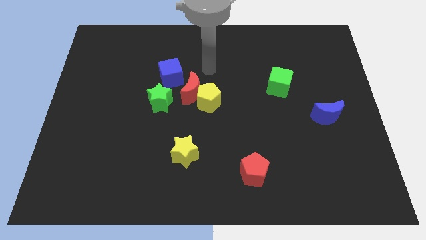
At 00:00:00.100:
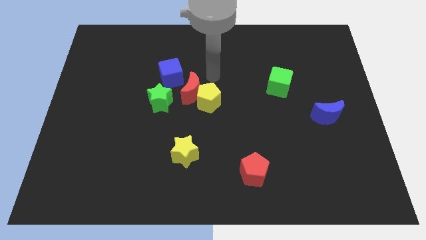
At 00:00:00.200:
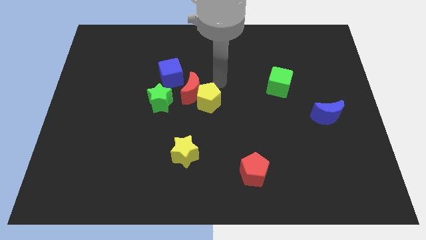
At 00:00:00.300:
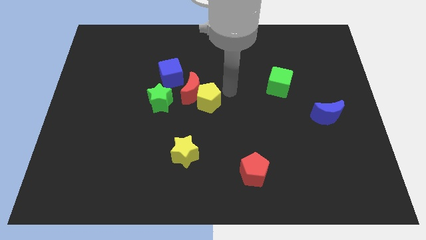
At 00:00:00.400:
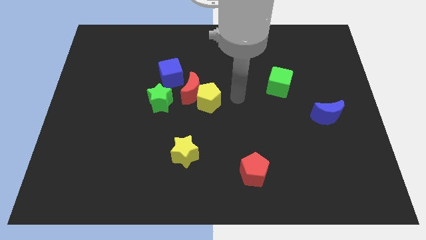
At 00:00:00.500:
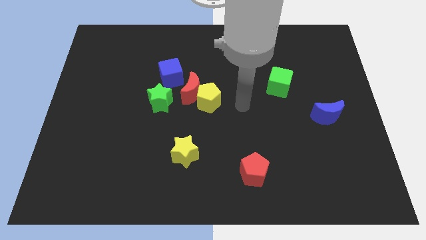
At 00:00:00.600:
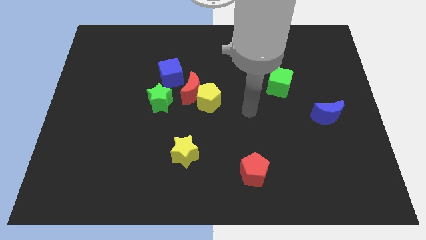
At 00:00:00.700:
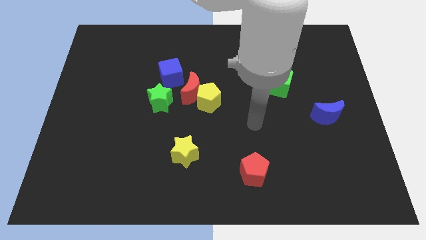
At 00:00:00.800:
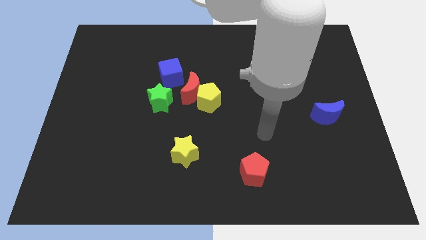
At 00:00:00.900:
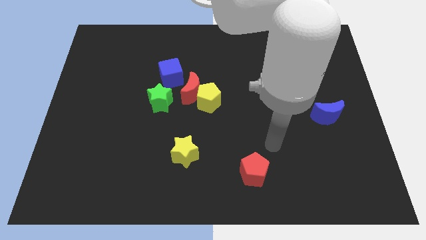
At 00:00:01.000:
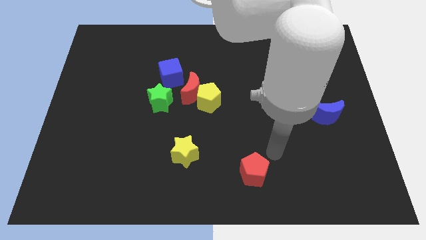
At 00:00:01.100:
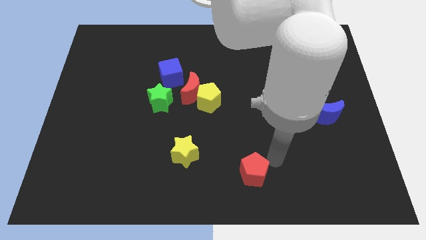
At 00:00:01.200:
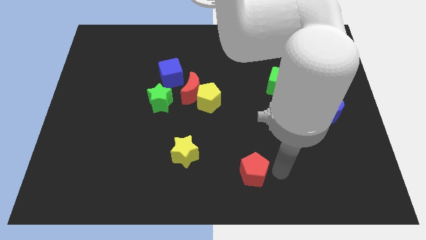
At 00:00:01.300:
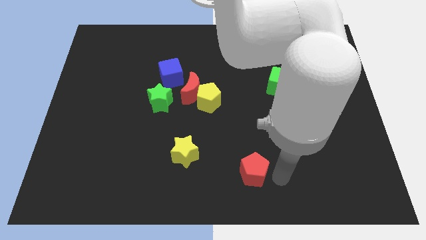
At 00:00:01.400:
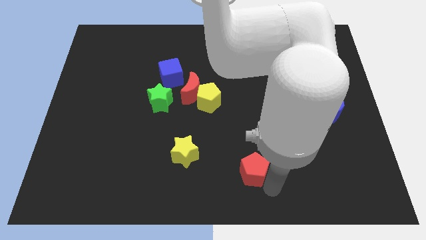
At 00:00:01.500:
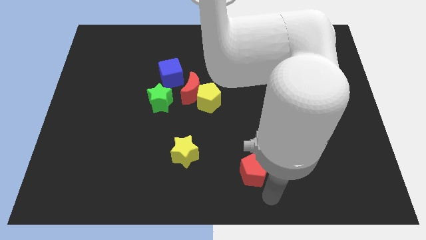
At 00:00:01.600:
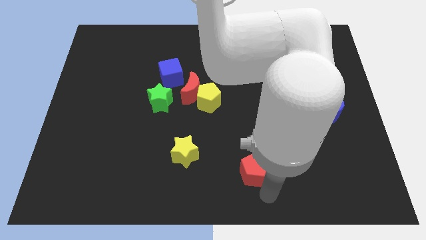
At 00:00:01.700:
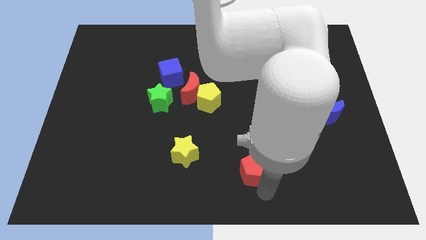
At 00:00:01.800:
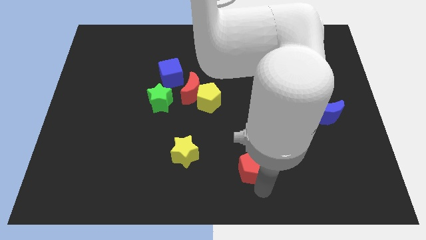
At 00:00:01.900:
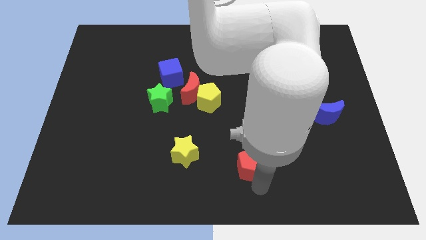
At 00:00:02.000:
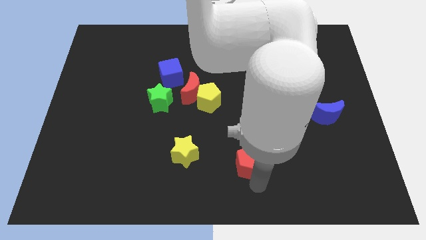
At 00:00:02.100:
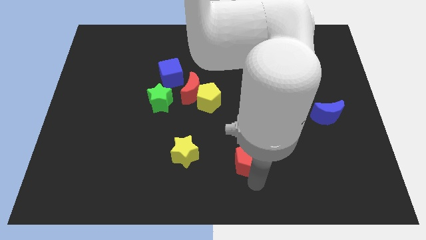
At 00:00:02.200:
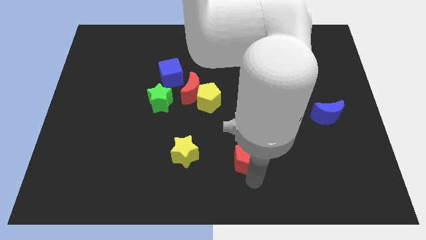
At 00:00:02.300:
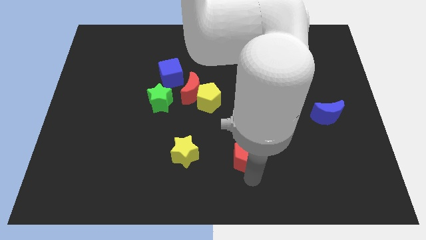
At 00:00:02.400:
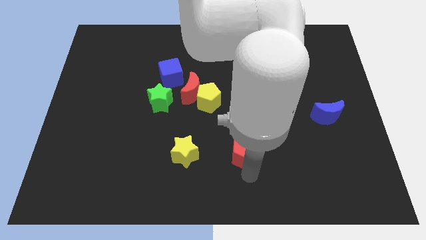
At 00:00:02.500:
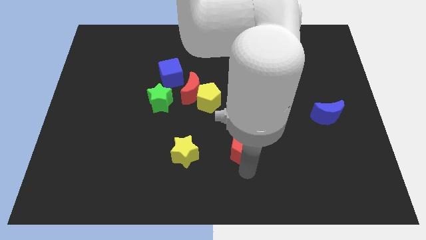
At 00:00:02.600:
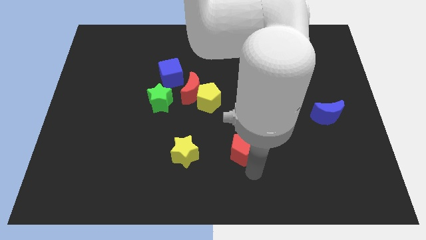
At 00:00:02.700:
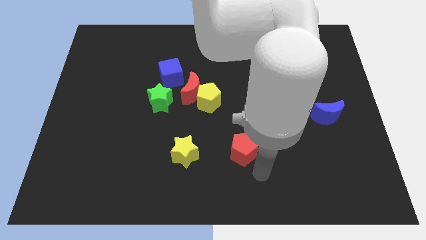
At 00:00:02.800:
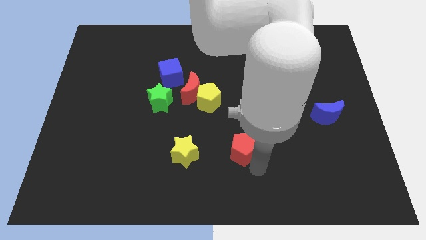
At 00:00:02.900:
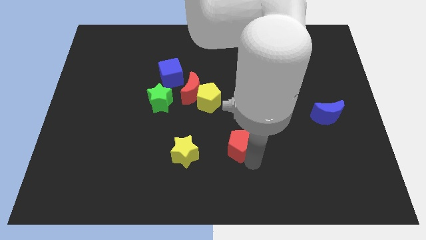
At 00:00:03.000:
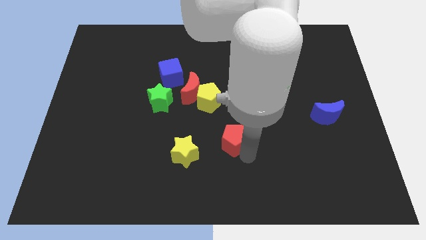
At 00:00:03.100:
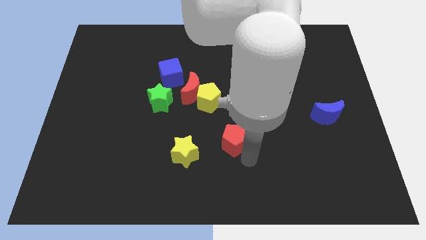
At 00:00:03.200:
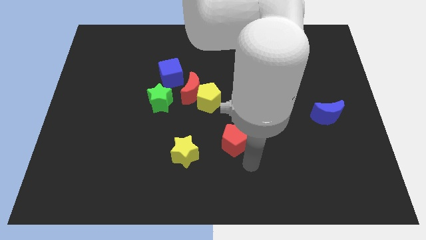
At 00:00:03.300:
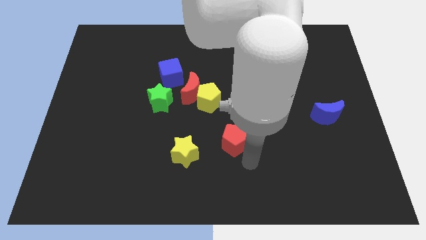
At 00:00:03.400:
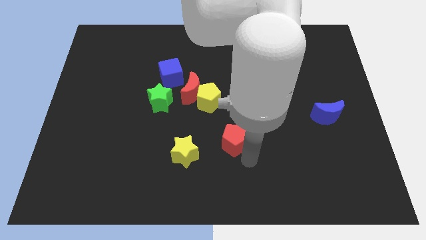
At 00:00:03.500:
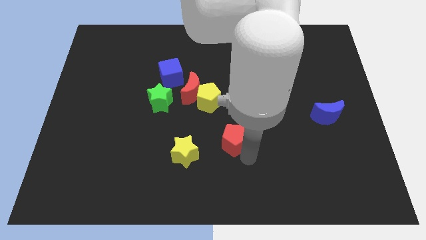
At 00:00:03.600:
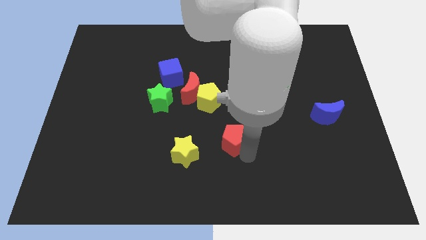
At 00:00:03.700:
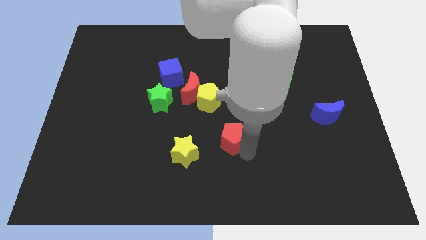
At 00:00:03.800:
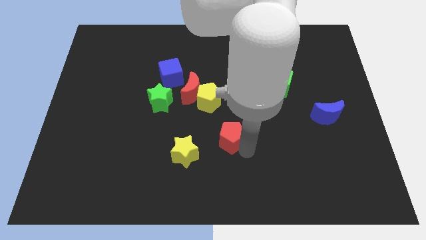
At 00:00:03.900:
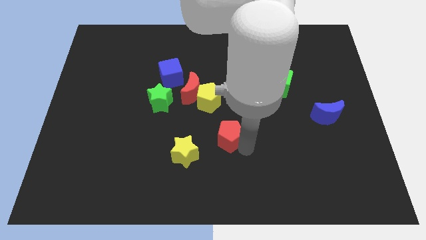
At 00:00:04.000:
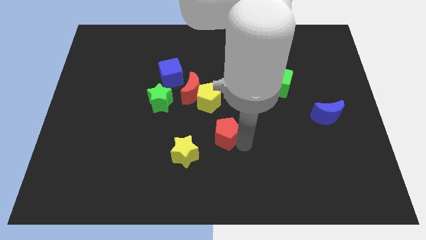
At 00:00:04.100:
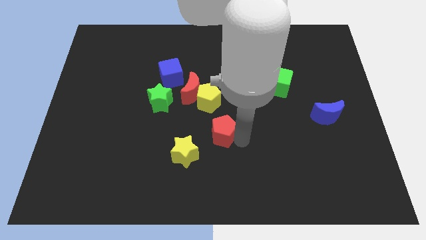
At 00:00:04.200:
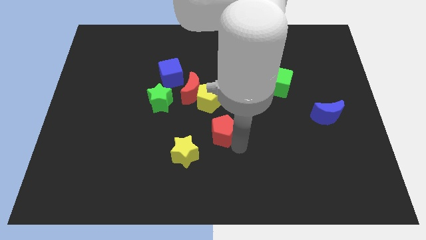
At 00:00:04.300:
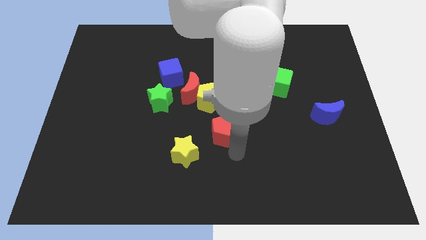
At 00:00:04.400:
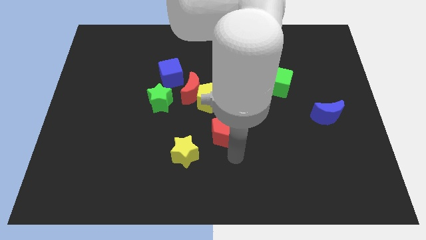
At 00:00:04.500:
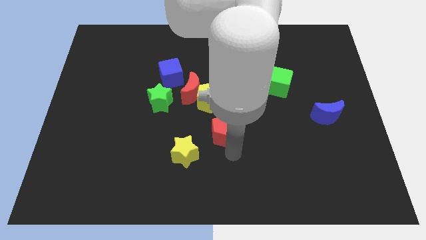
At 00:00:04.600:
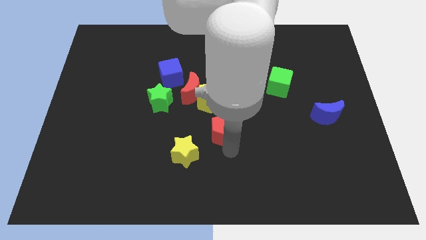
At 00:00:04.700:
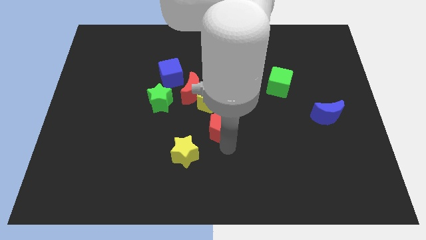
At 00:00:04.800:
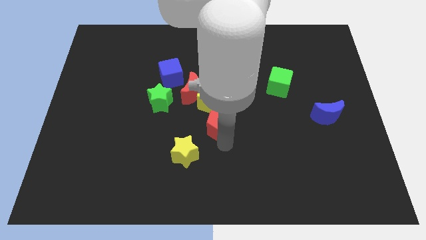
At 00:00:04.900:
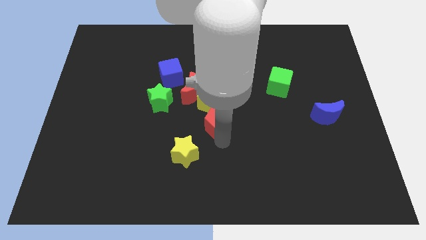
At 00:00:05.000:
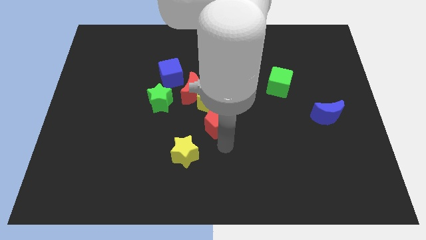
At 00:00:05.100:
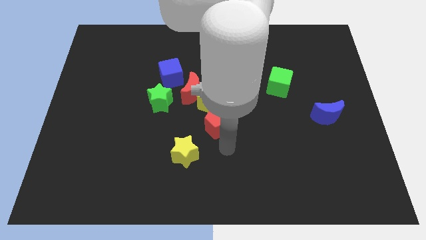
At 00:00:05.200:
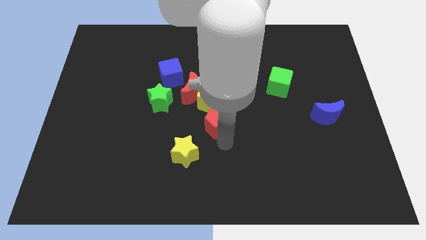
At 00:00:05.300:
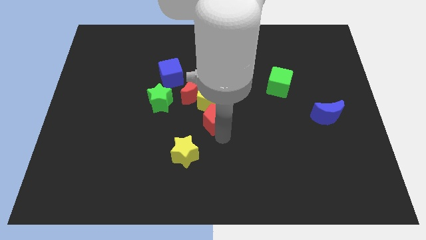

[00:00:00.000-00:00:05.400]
slide the red pentagon to the yellow pentagon

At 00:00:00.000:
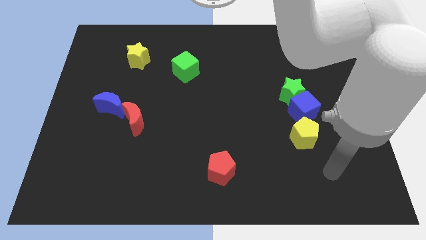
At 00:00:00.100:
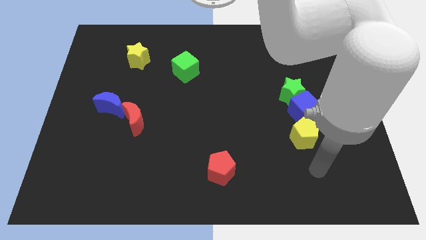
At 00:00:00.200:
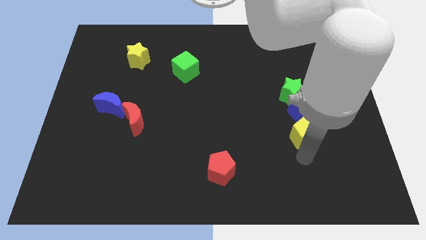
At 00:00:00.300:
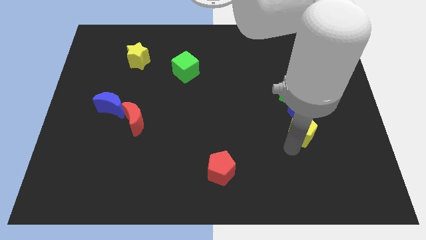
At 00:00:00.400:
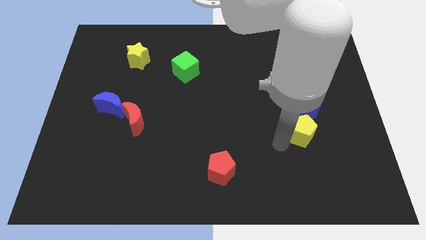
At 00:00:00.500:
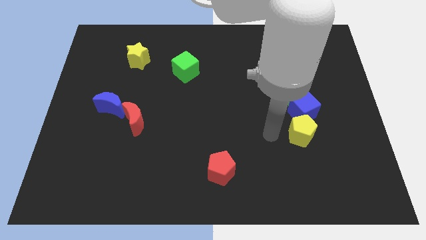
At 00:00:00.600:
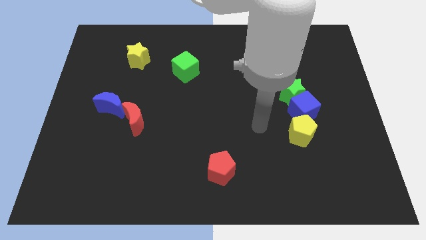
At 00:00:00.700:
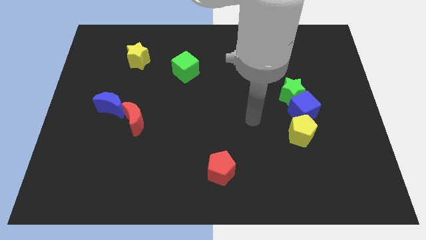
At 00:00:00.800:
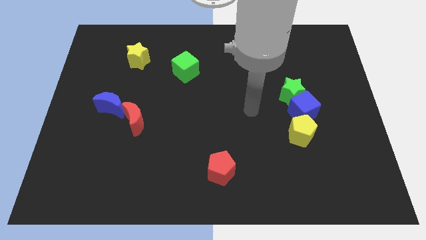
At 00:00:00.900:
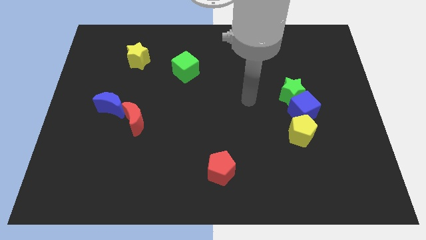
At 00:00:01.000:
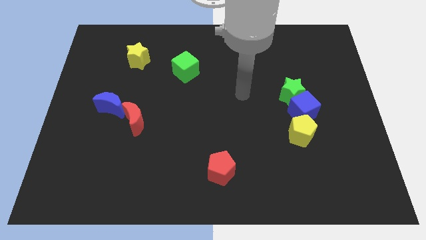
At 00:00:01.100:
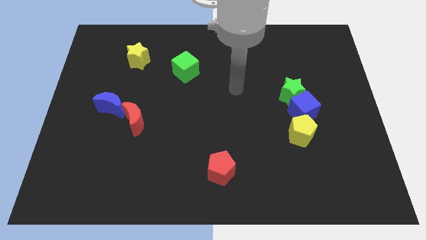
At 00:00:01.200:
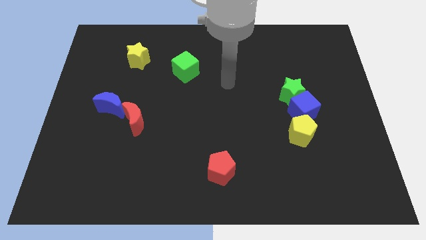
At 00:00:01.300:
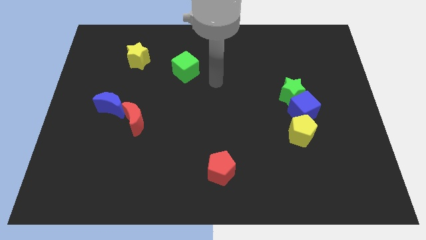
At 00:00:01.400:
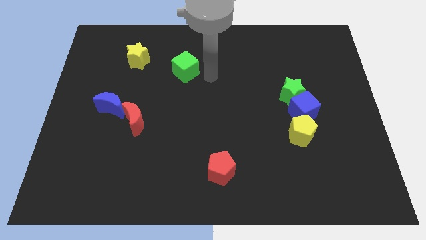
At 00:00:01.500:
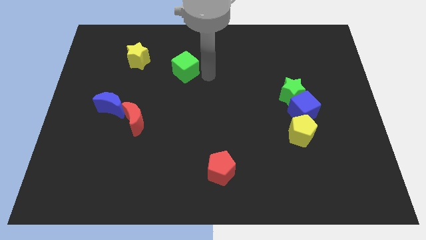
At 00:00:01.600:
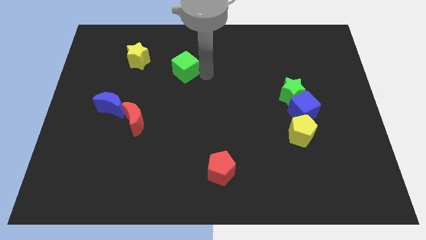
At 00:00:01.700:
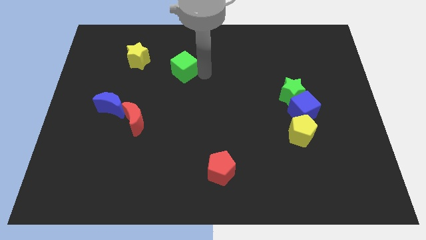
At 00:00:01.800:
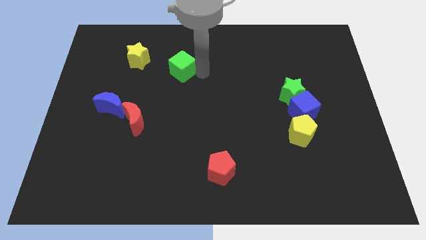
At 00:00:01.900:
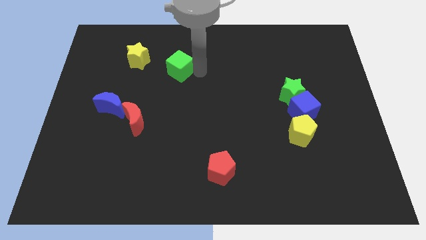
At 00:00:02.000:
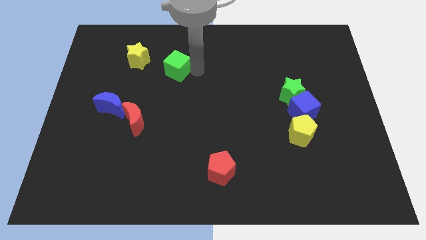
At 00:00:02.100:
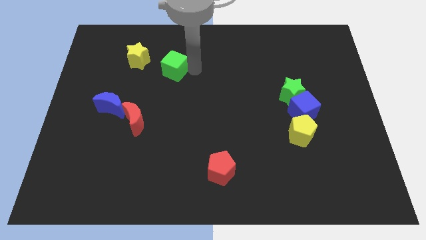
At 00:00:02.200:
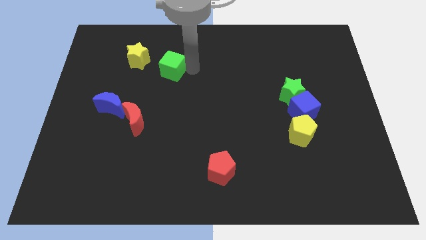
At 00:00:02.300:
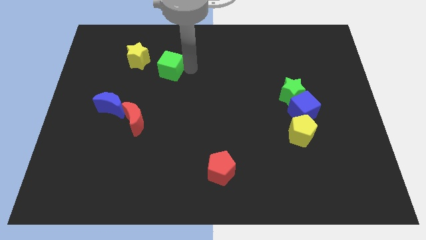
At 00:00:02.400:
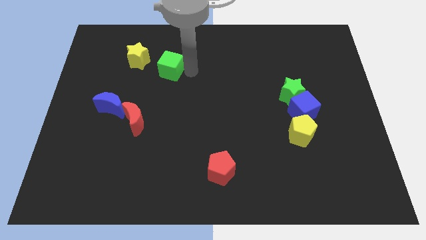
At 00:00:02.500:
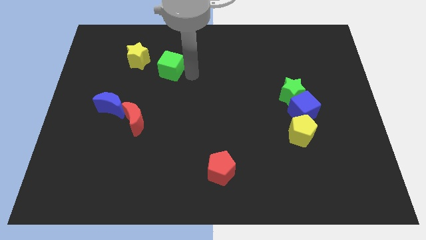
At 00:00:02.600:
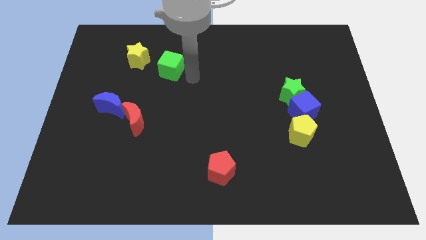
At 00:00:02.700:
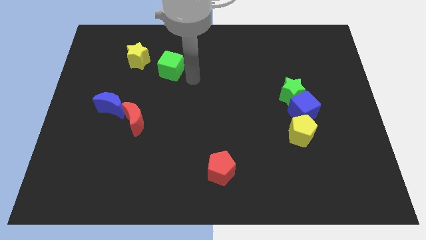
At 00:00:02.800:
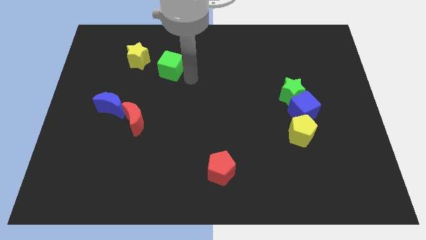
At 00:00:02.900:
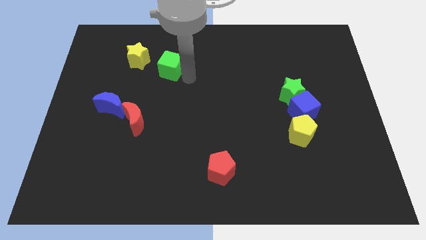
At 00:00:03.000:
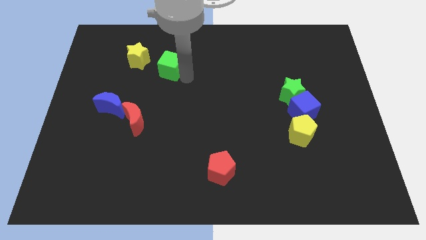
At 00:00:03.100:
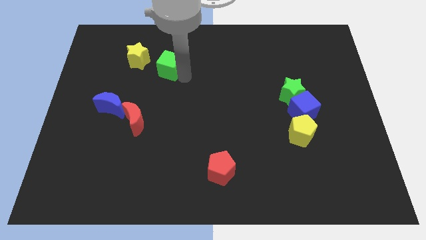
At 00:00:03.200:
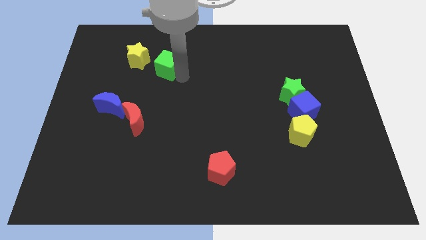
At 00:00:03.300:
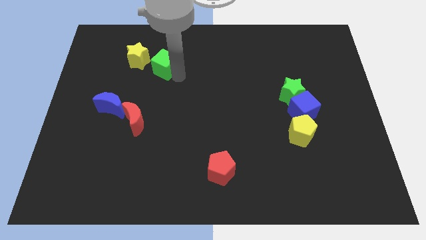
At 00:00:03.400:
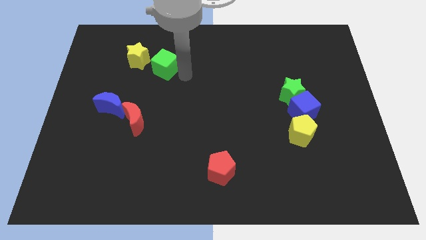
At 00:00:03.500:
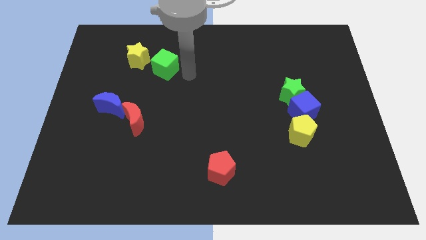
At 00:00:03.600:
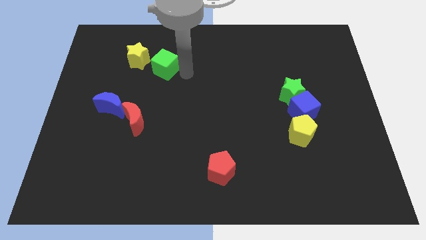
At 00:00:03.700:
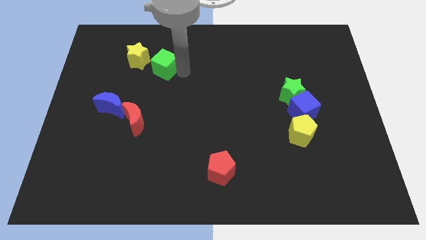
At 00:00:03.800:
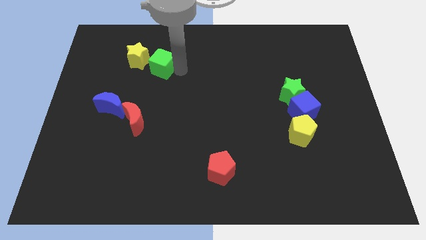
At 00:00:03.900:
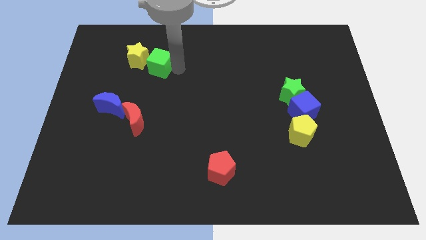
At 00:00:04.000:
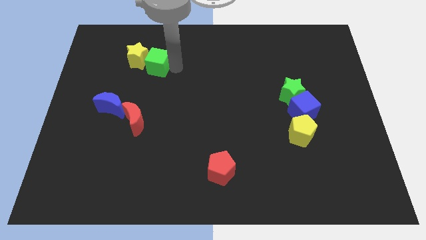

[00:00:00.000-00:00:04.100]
move the green cube close to the yellow star
